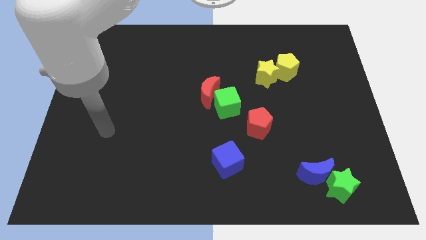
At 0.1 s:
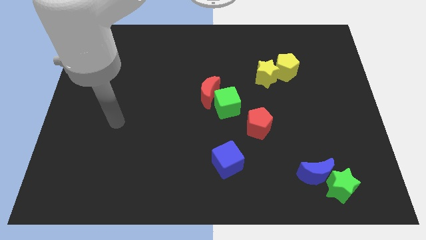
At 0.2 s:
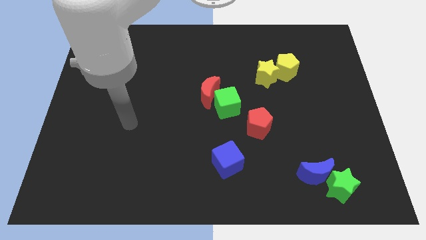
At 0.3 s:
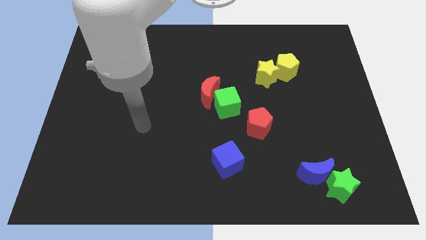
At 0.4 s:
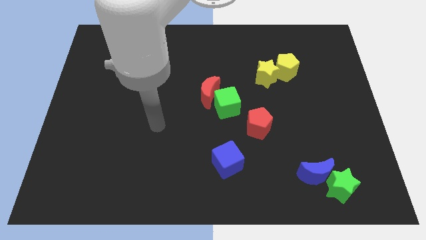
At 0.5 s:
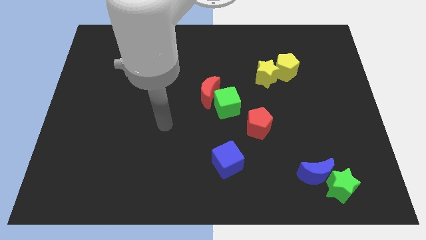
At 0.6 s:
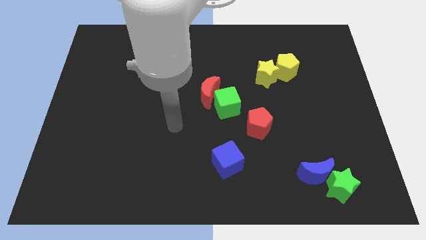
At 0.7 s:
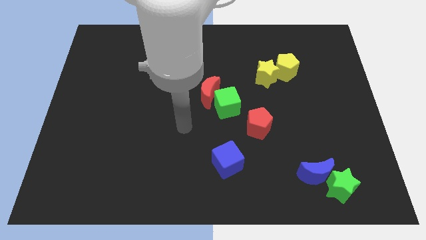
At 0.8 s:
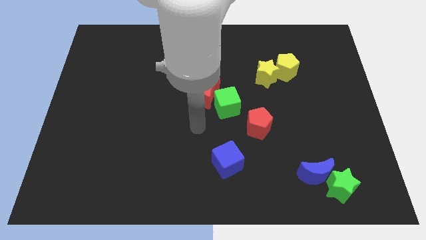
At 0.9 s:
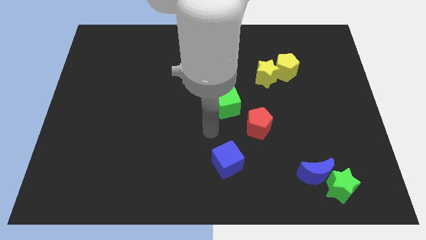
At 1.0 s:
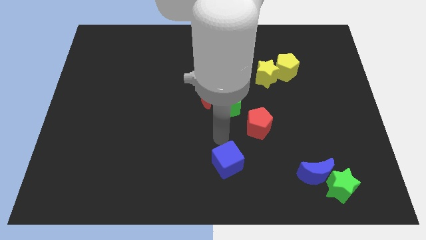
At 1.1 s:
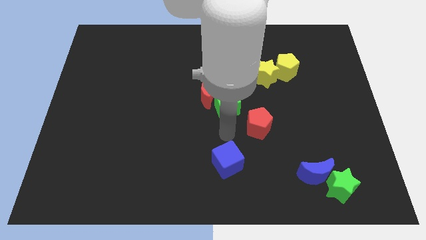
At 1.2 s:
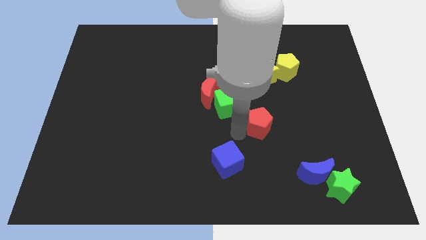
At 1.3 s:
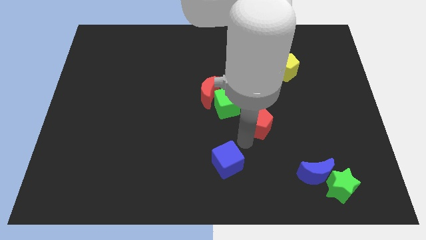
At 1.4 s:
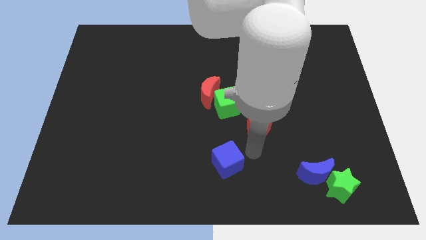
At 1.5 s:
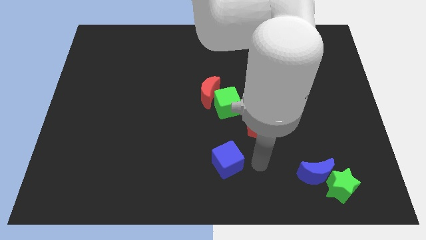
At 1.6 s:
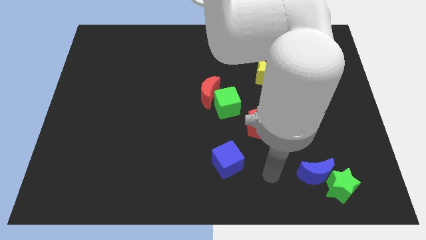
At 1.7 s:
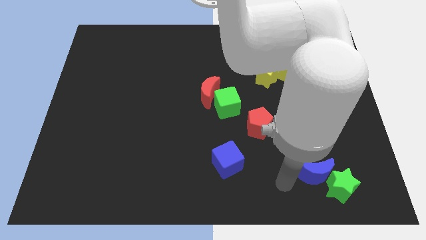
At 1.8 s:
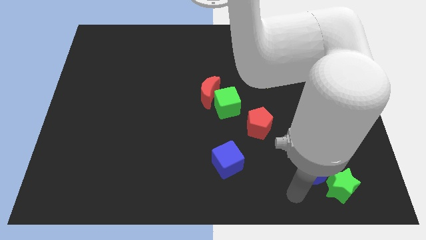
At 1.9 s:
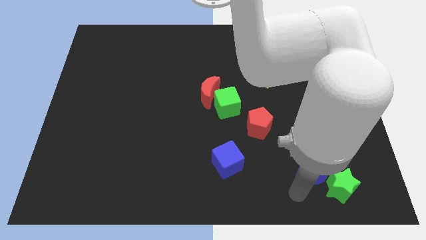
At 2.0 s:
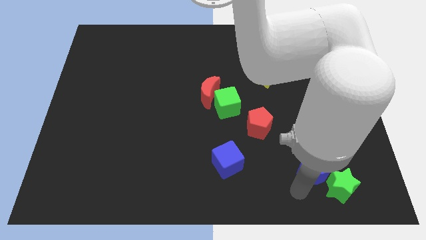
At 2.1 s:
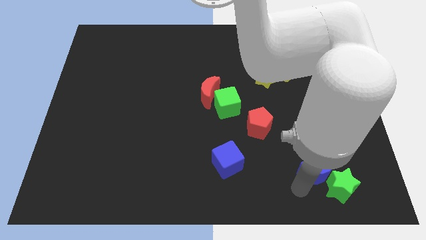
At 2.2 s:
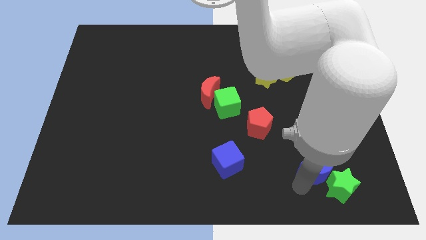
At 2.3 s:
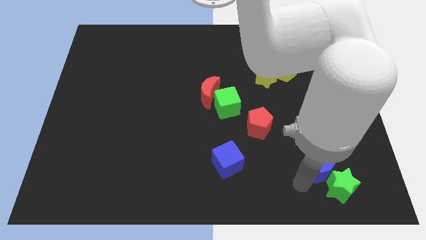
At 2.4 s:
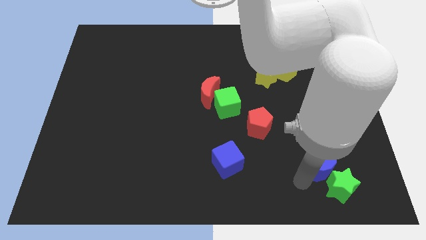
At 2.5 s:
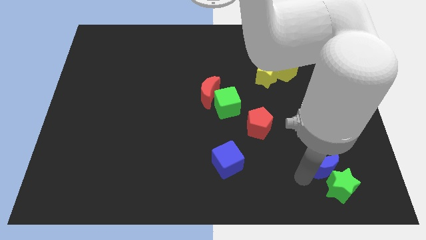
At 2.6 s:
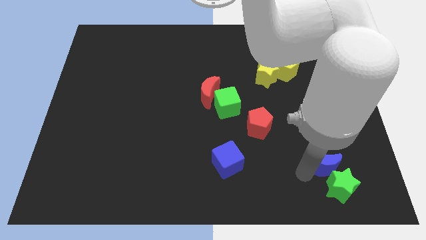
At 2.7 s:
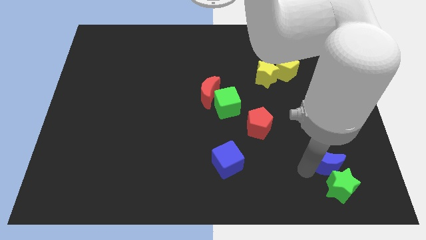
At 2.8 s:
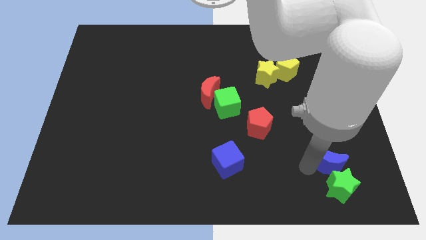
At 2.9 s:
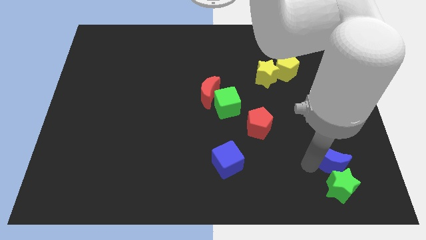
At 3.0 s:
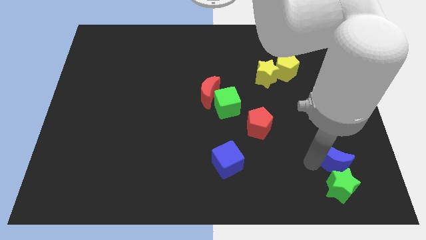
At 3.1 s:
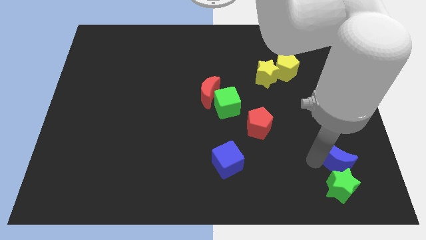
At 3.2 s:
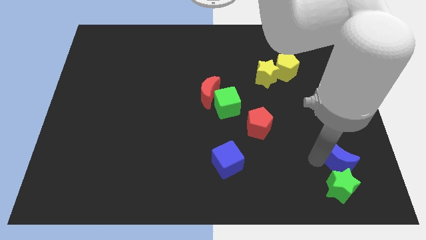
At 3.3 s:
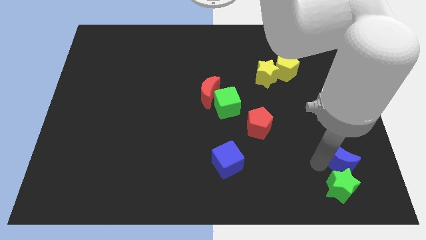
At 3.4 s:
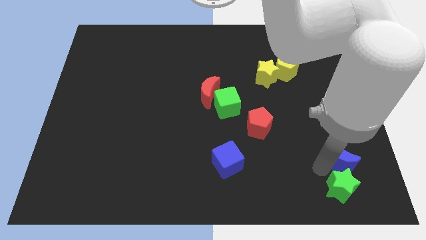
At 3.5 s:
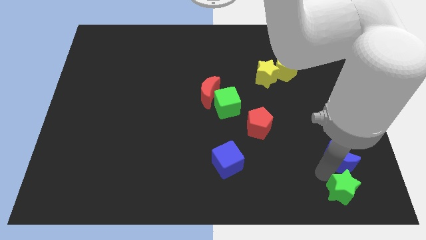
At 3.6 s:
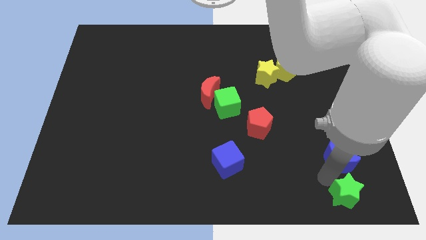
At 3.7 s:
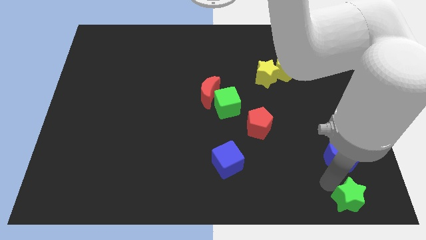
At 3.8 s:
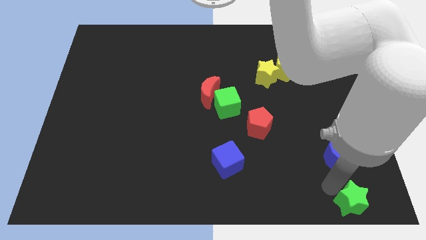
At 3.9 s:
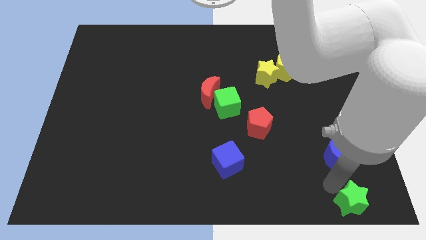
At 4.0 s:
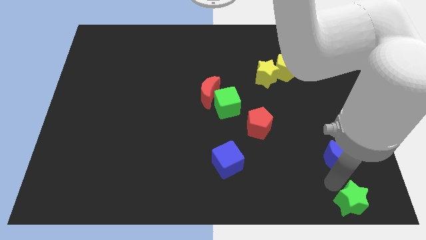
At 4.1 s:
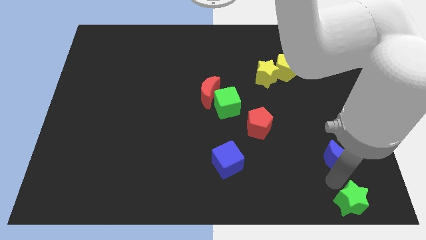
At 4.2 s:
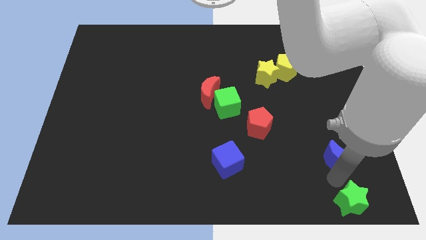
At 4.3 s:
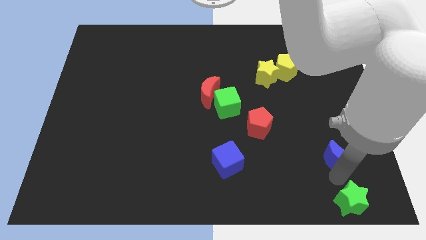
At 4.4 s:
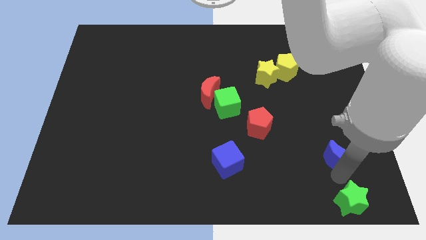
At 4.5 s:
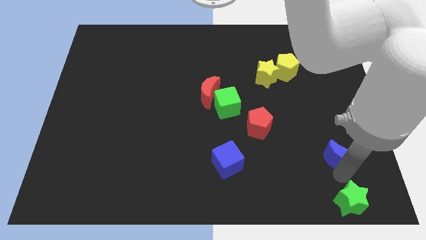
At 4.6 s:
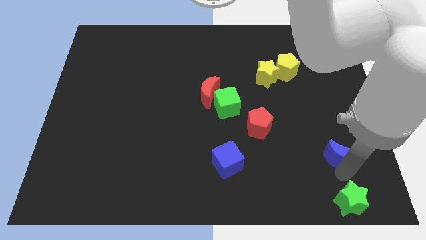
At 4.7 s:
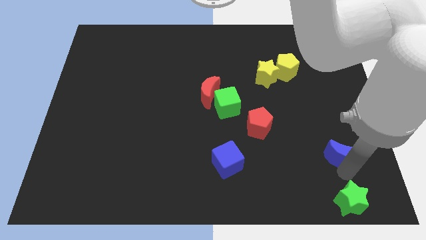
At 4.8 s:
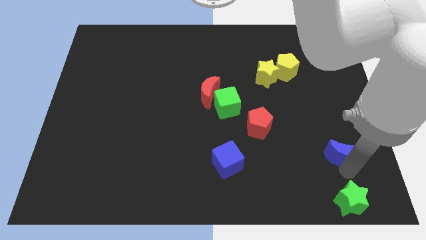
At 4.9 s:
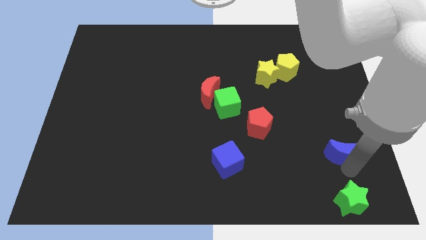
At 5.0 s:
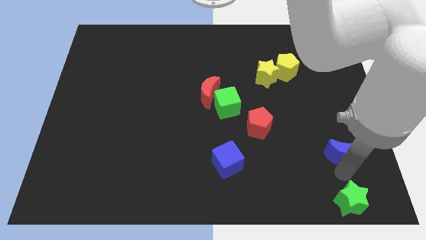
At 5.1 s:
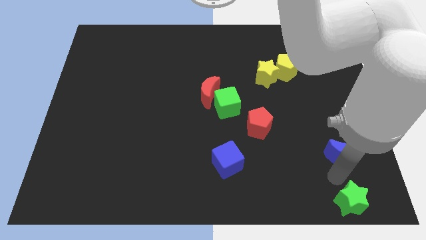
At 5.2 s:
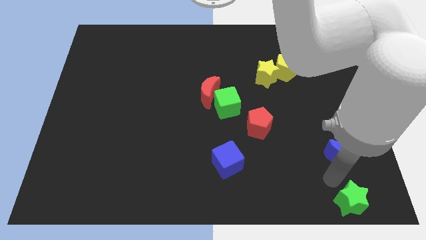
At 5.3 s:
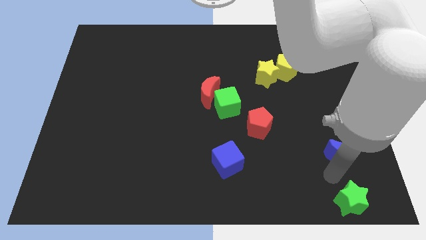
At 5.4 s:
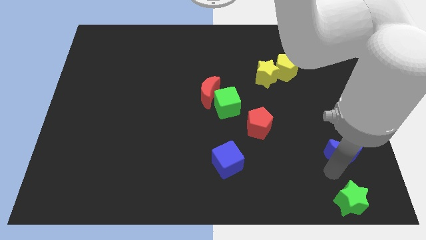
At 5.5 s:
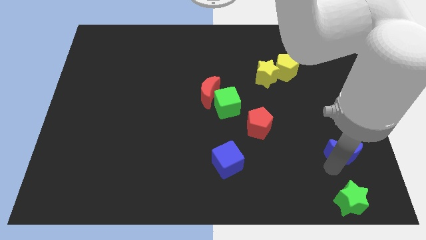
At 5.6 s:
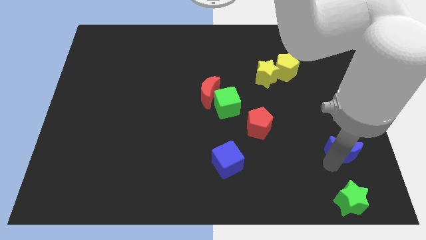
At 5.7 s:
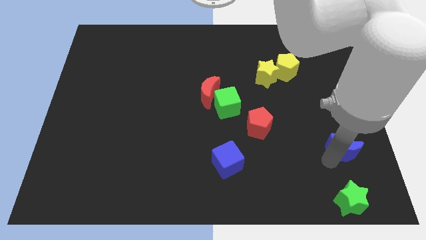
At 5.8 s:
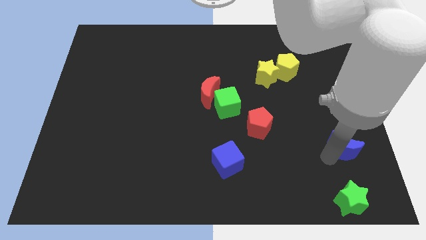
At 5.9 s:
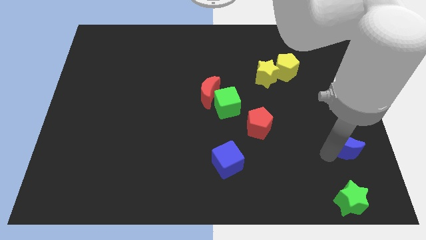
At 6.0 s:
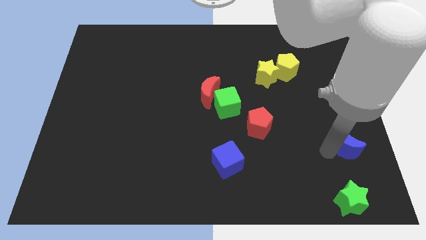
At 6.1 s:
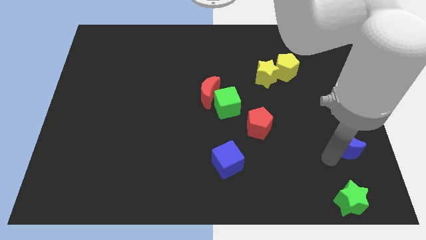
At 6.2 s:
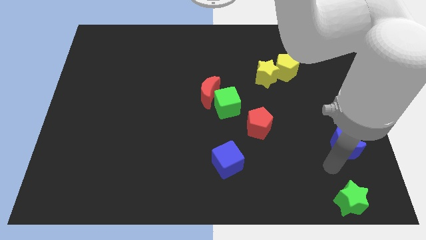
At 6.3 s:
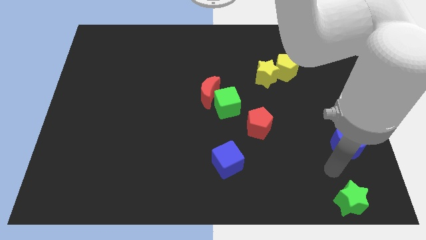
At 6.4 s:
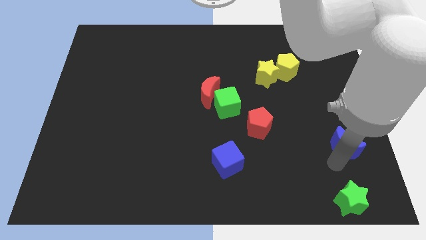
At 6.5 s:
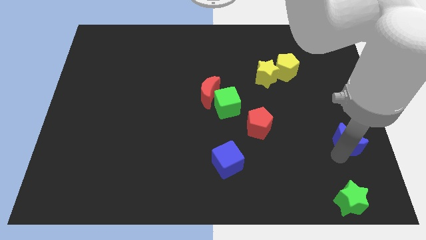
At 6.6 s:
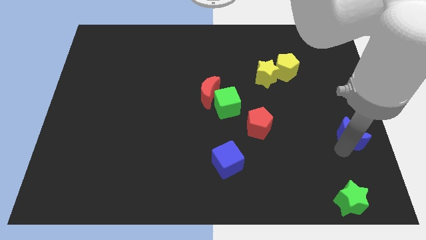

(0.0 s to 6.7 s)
push the blue moon to the right side of the board

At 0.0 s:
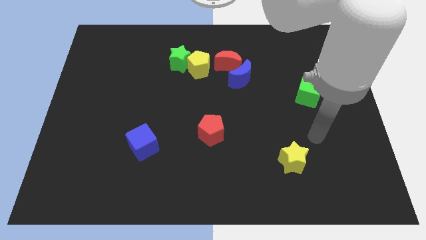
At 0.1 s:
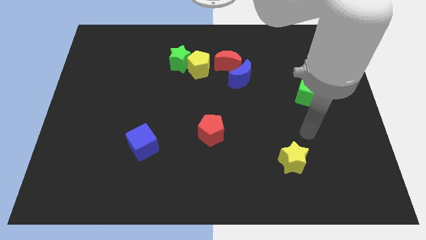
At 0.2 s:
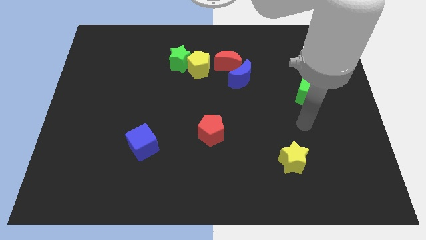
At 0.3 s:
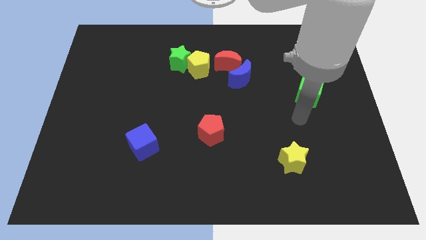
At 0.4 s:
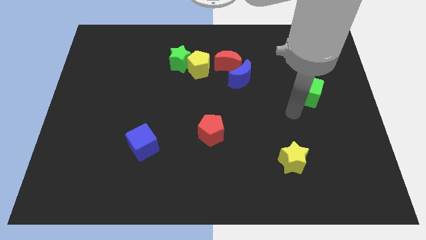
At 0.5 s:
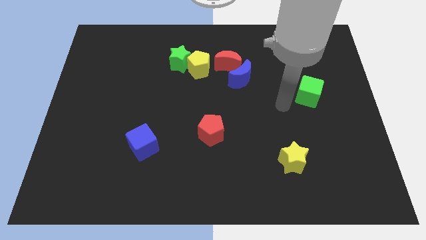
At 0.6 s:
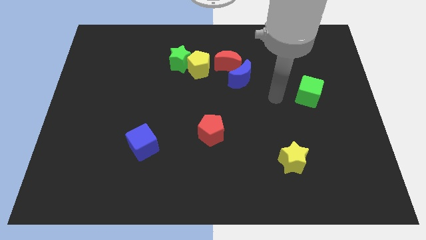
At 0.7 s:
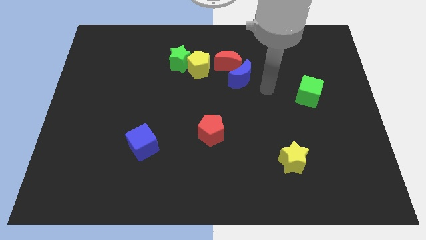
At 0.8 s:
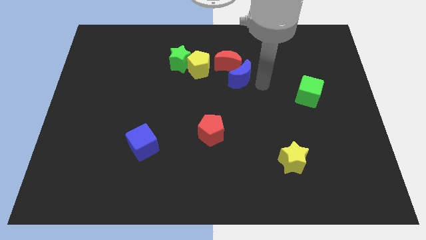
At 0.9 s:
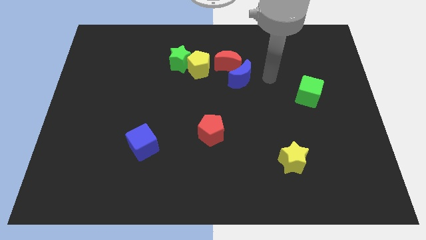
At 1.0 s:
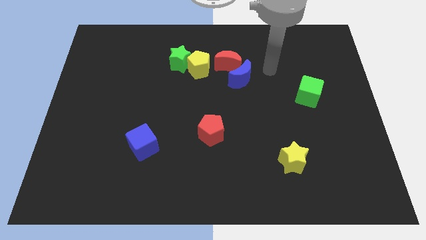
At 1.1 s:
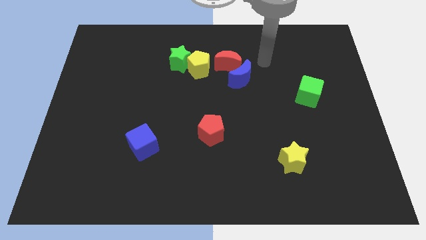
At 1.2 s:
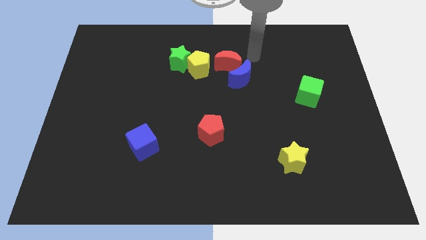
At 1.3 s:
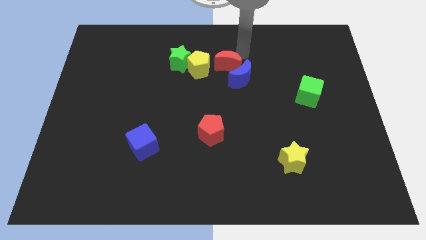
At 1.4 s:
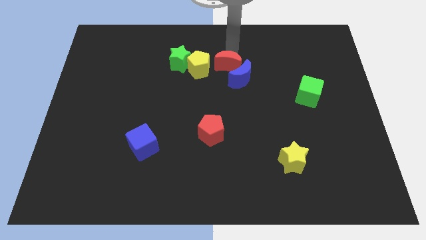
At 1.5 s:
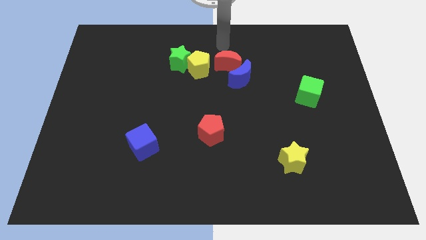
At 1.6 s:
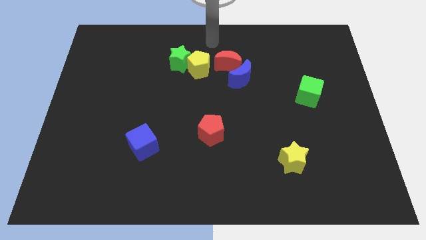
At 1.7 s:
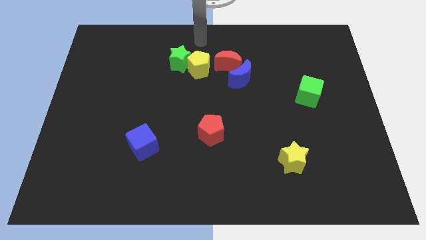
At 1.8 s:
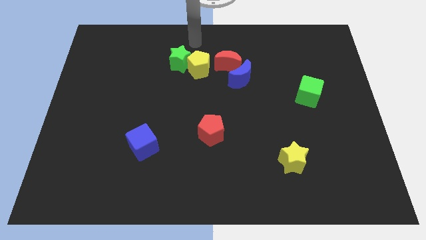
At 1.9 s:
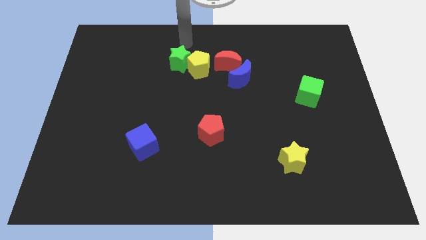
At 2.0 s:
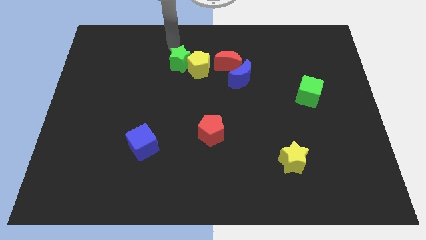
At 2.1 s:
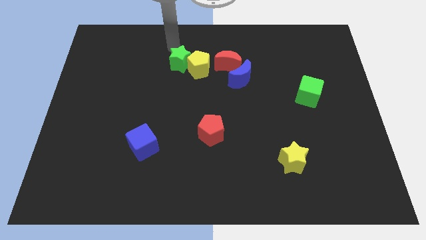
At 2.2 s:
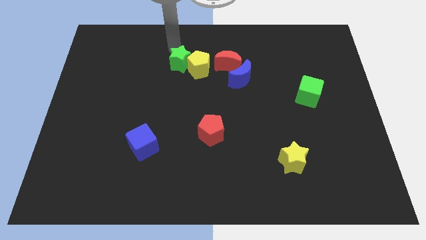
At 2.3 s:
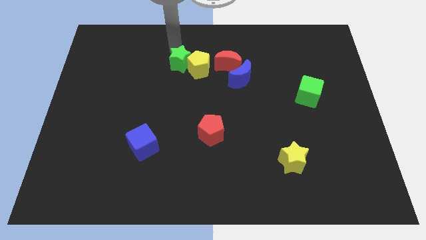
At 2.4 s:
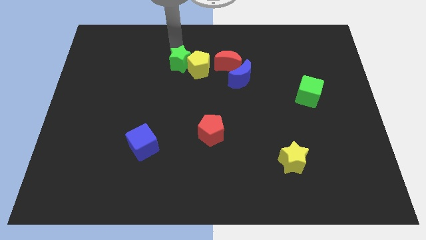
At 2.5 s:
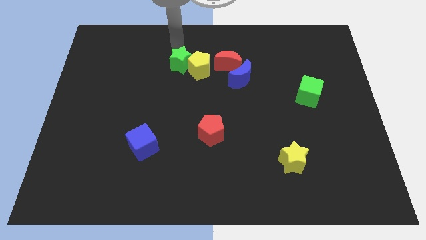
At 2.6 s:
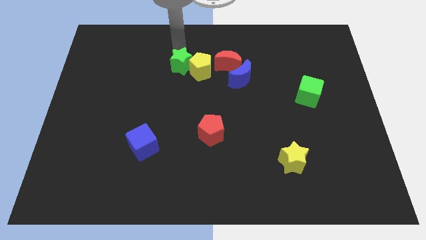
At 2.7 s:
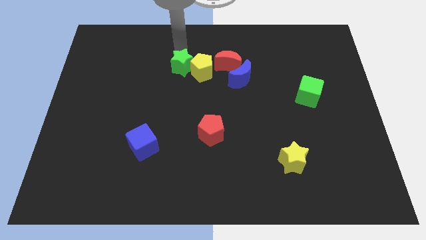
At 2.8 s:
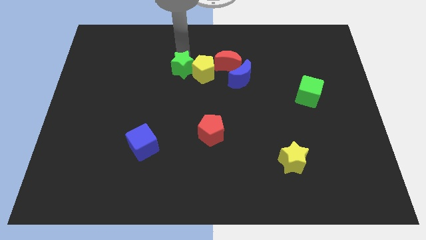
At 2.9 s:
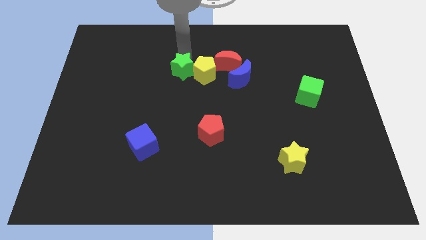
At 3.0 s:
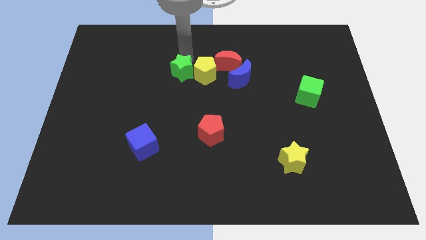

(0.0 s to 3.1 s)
move the green star to the center of the board
